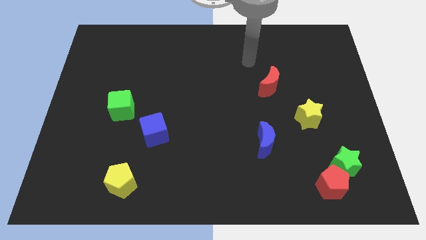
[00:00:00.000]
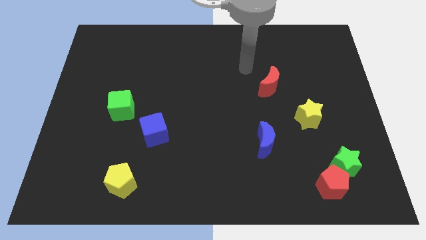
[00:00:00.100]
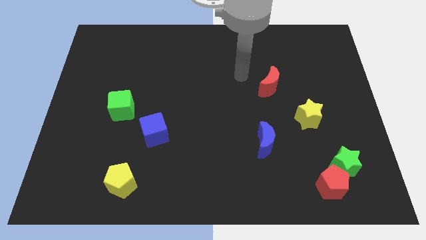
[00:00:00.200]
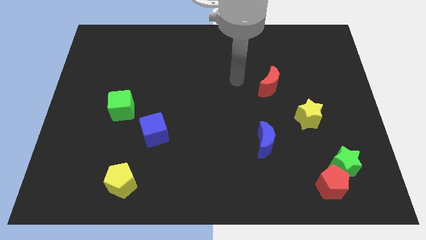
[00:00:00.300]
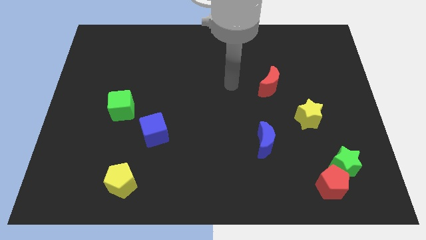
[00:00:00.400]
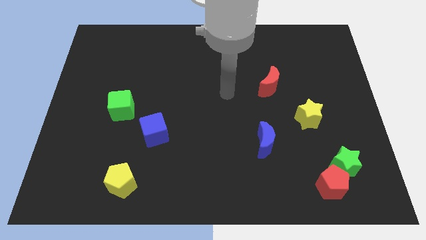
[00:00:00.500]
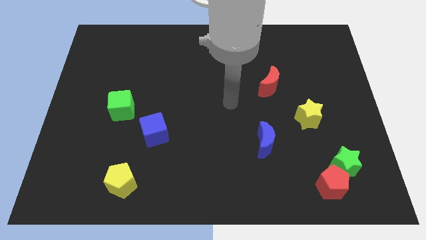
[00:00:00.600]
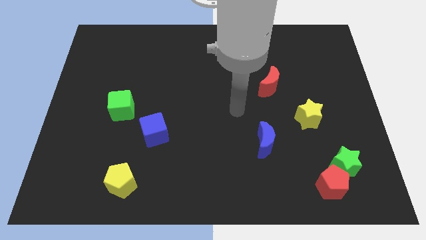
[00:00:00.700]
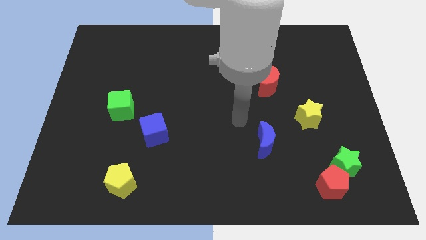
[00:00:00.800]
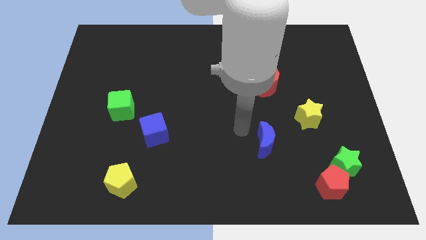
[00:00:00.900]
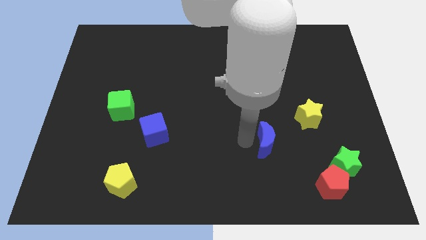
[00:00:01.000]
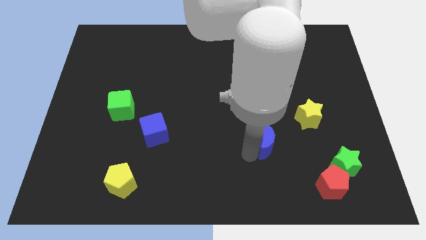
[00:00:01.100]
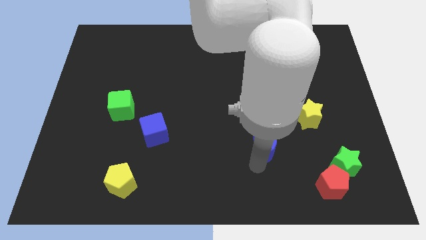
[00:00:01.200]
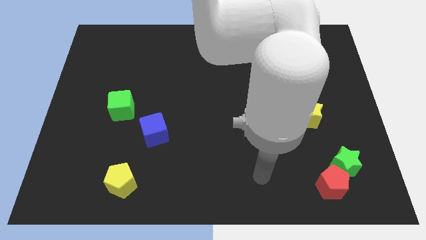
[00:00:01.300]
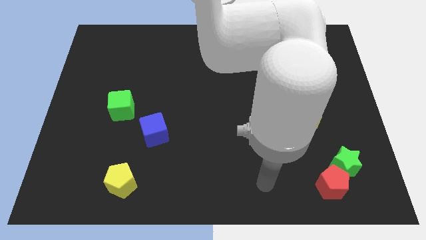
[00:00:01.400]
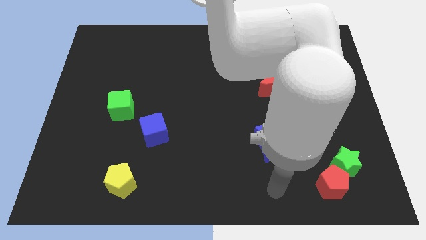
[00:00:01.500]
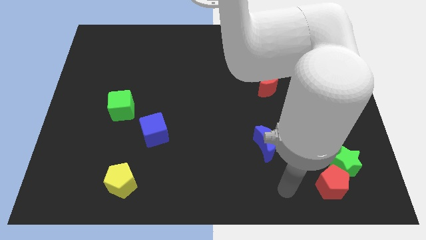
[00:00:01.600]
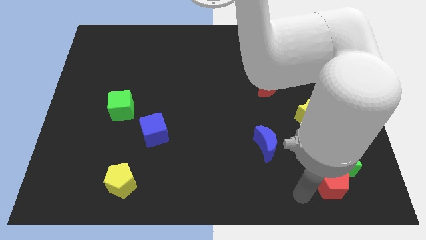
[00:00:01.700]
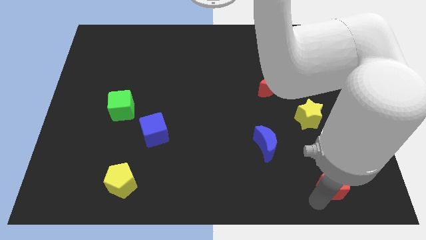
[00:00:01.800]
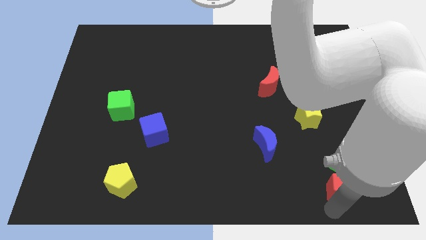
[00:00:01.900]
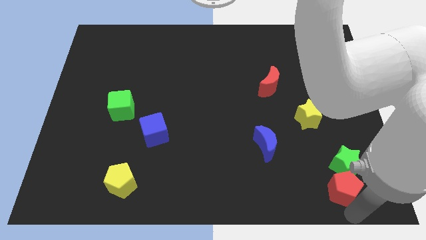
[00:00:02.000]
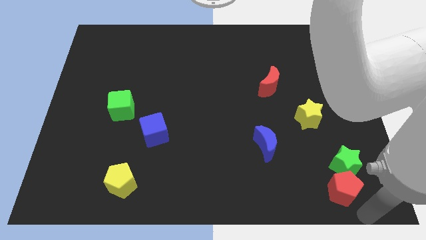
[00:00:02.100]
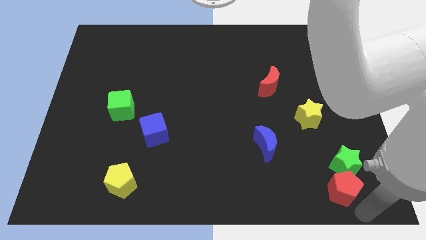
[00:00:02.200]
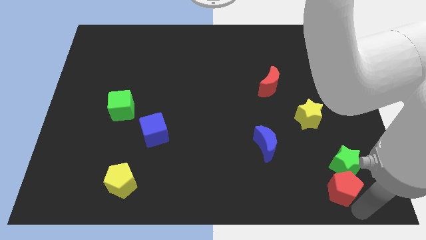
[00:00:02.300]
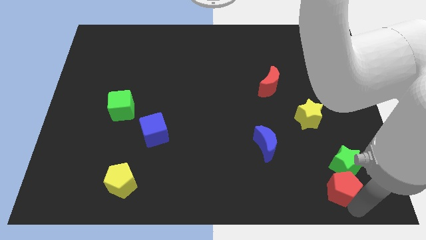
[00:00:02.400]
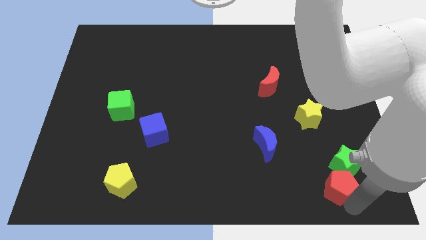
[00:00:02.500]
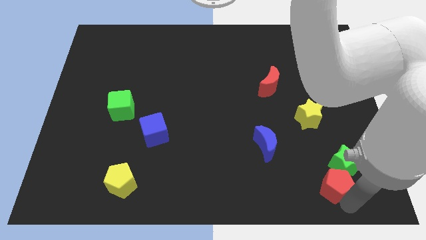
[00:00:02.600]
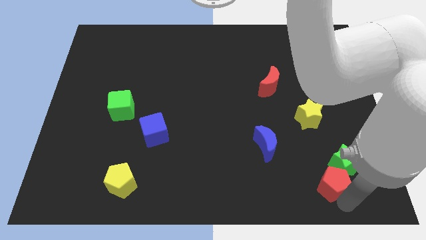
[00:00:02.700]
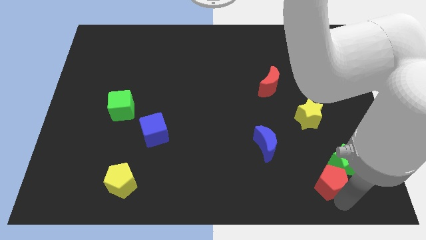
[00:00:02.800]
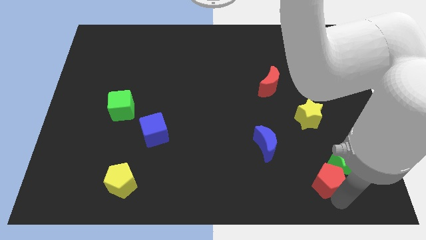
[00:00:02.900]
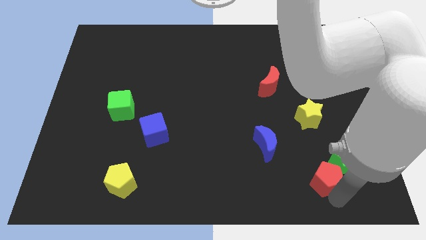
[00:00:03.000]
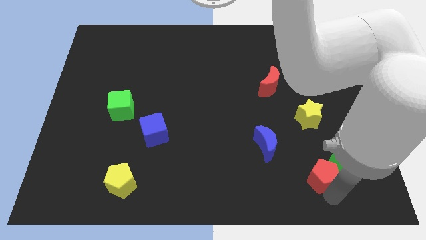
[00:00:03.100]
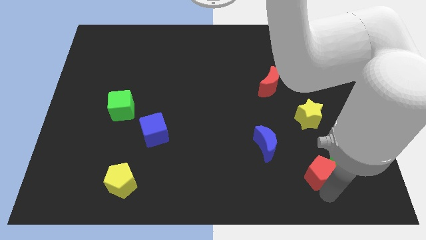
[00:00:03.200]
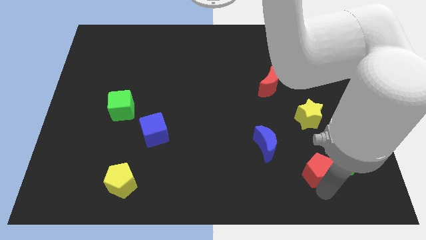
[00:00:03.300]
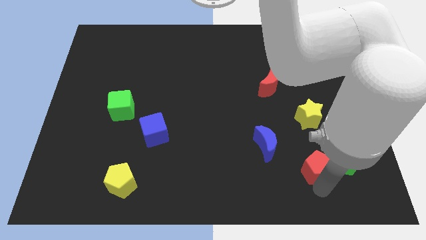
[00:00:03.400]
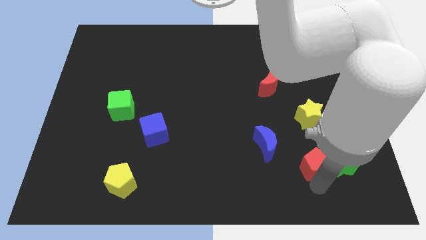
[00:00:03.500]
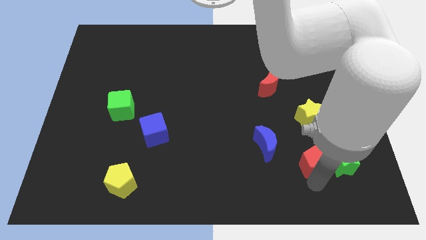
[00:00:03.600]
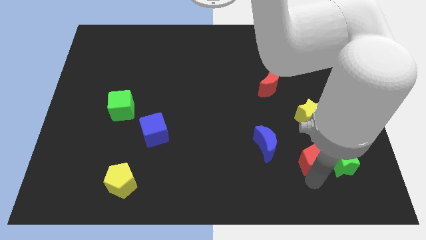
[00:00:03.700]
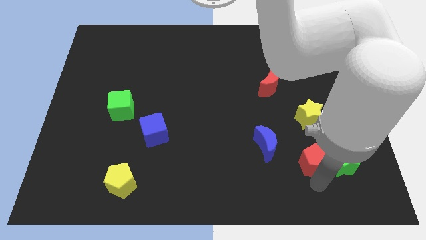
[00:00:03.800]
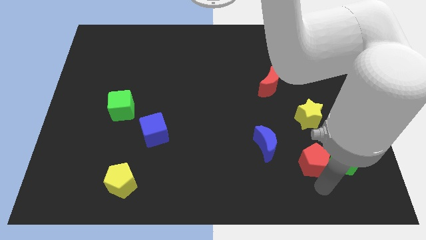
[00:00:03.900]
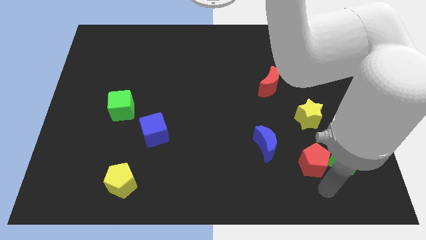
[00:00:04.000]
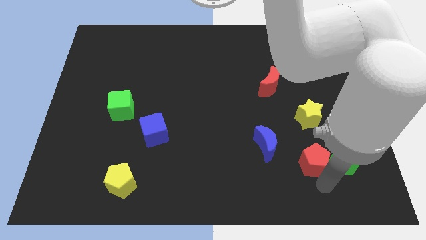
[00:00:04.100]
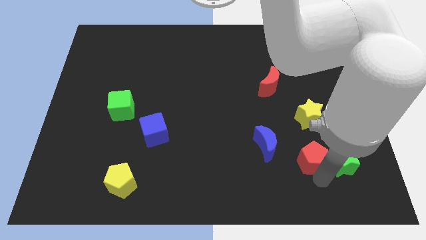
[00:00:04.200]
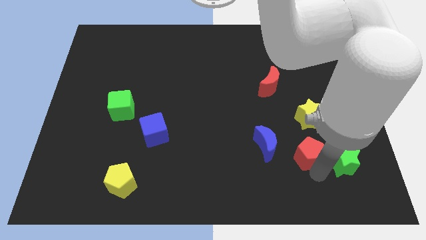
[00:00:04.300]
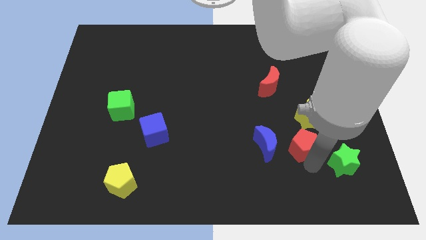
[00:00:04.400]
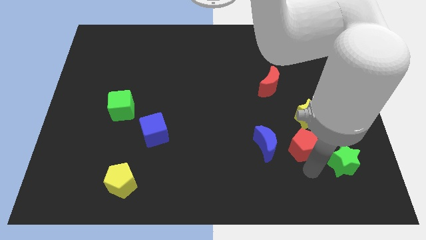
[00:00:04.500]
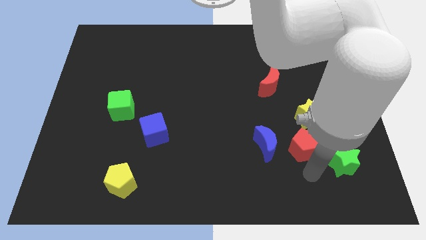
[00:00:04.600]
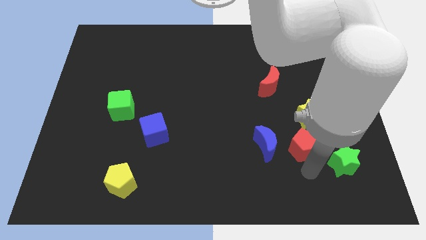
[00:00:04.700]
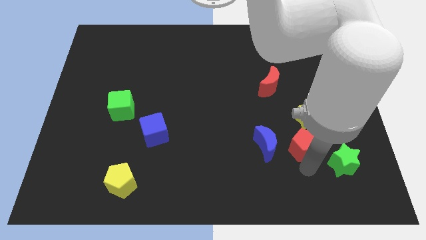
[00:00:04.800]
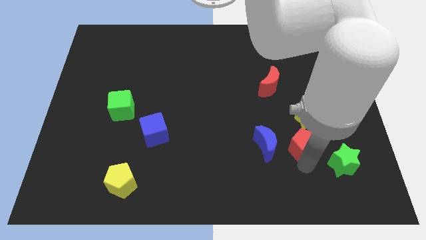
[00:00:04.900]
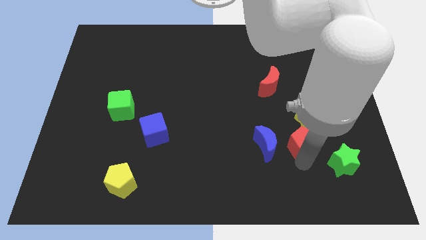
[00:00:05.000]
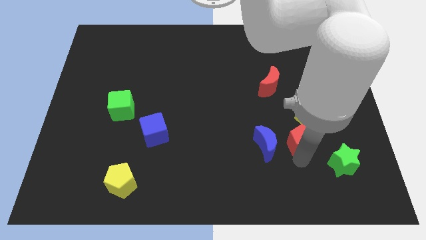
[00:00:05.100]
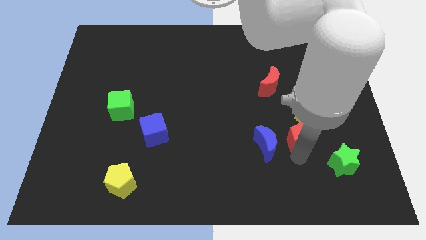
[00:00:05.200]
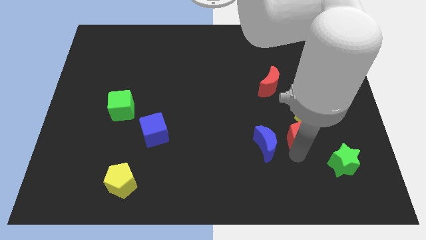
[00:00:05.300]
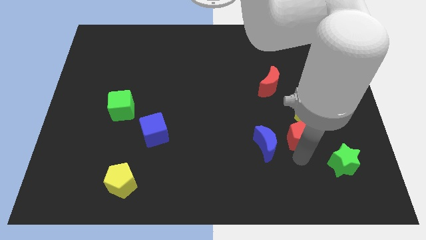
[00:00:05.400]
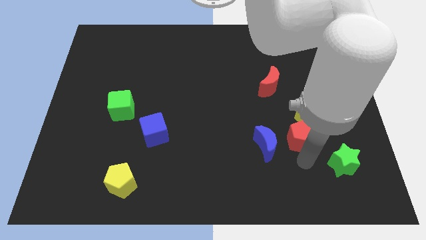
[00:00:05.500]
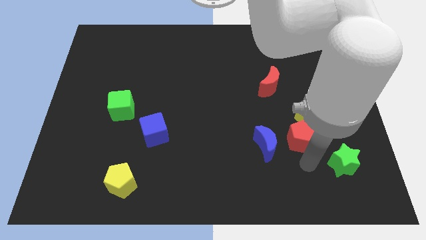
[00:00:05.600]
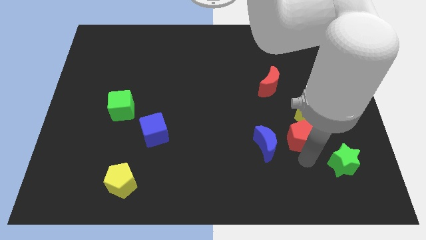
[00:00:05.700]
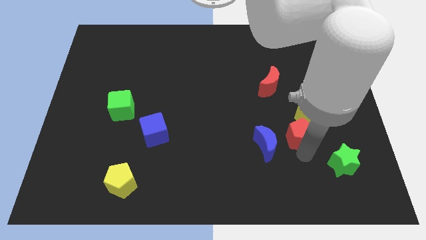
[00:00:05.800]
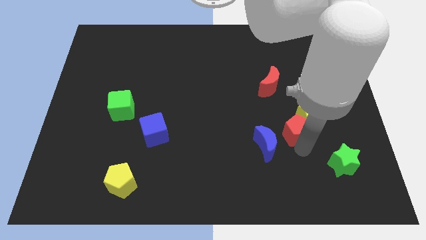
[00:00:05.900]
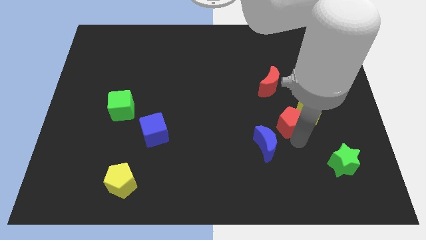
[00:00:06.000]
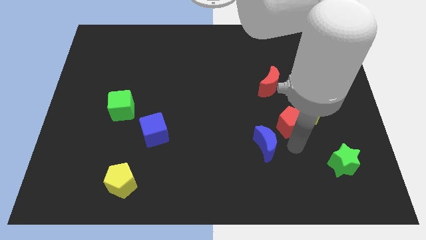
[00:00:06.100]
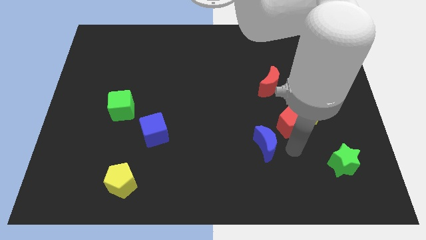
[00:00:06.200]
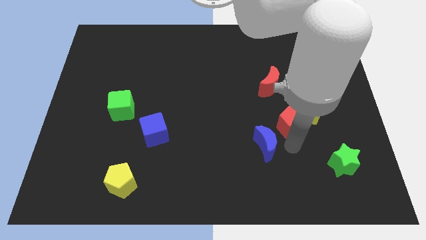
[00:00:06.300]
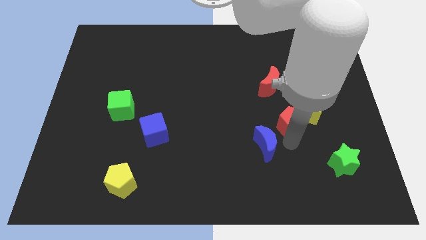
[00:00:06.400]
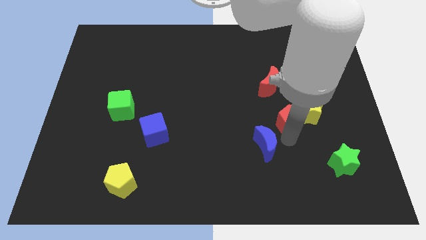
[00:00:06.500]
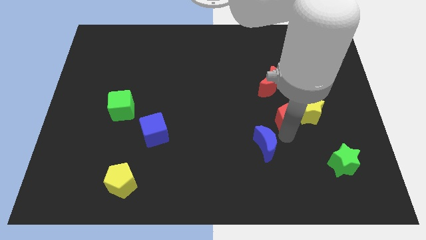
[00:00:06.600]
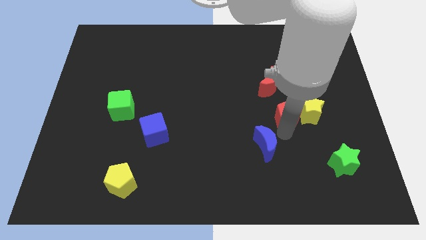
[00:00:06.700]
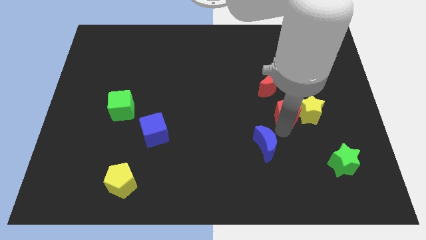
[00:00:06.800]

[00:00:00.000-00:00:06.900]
slide the red pentagon to the top left side of the yellow star
